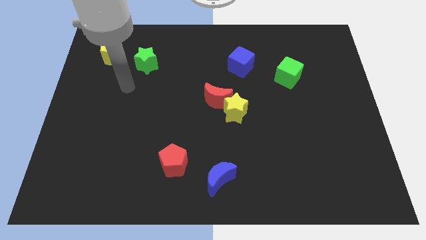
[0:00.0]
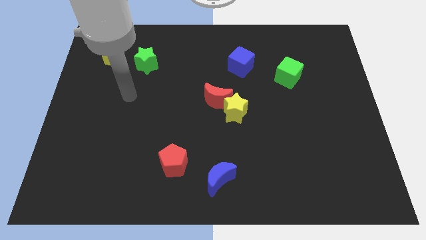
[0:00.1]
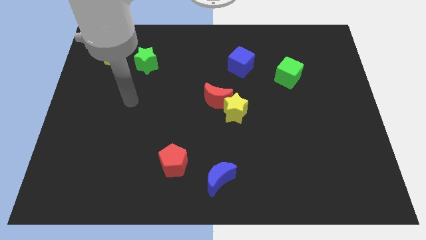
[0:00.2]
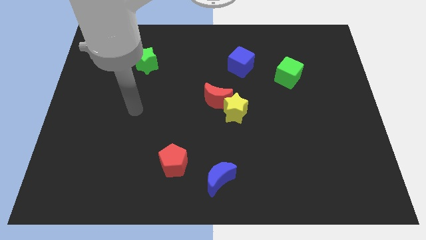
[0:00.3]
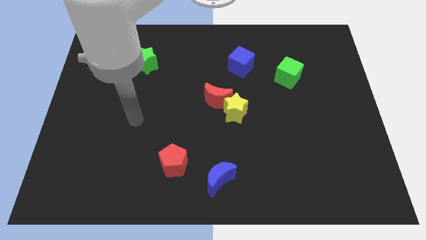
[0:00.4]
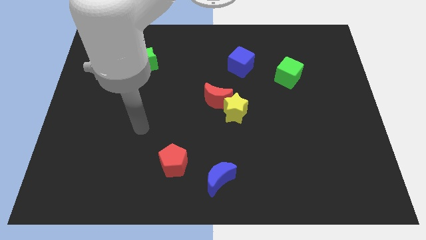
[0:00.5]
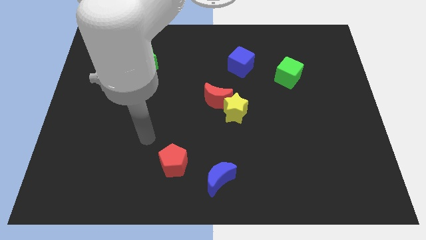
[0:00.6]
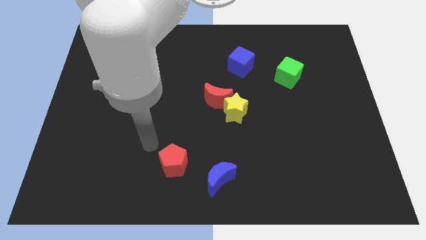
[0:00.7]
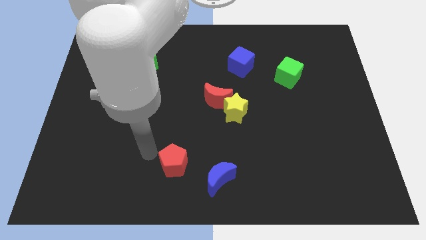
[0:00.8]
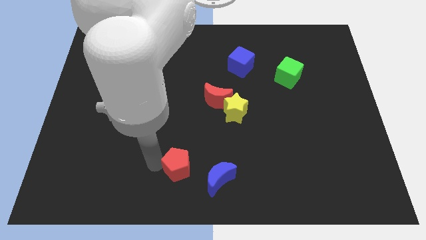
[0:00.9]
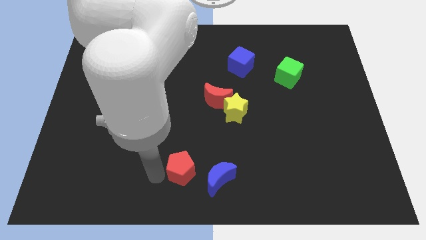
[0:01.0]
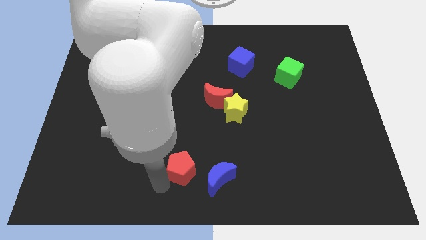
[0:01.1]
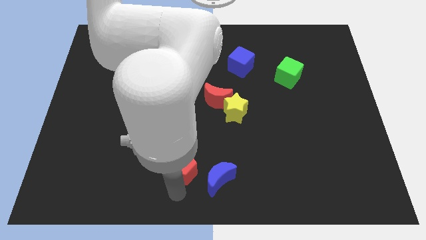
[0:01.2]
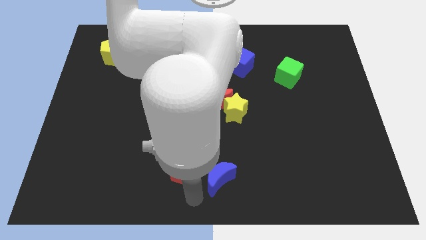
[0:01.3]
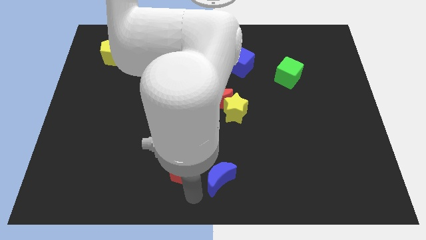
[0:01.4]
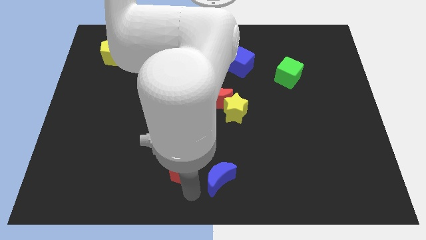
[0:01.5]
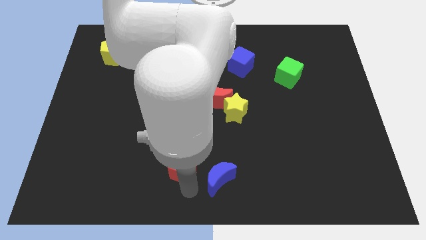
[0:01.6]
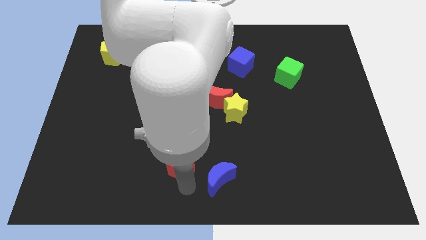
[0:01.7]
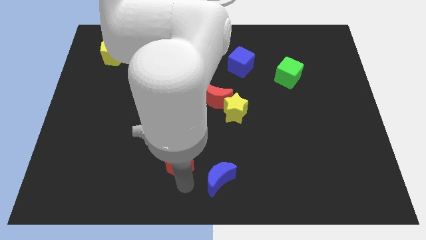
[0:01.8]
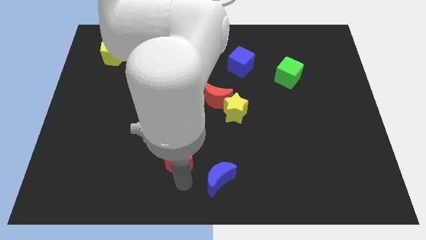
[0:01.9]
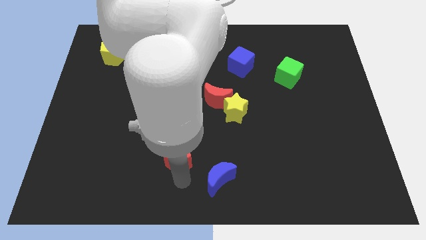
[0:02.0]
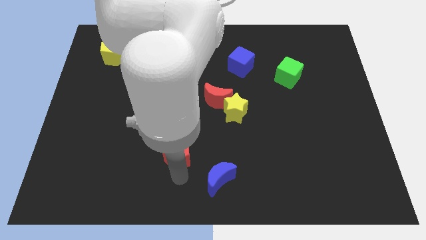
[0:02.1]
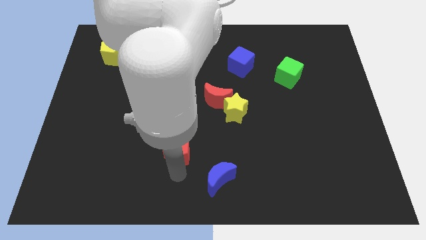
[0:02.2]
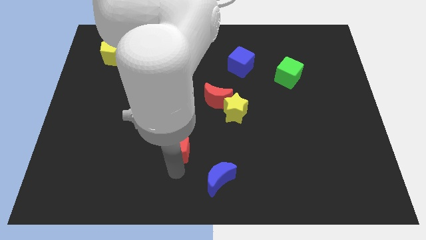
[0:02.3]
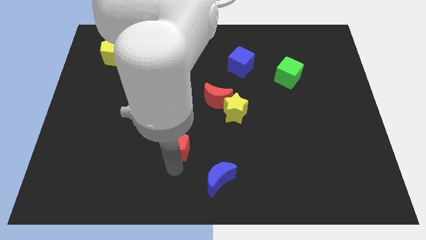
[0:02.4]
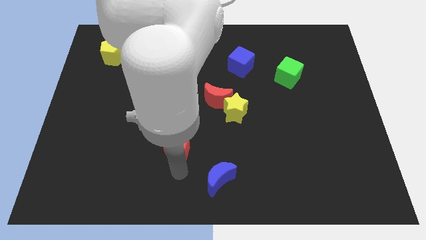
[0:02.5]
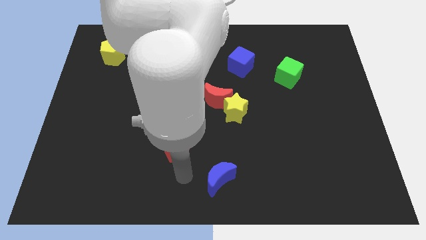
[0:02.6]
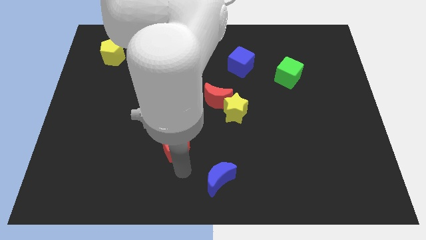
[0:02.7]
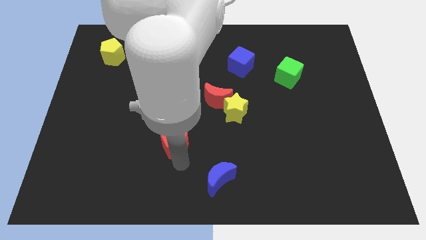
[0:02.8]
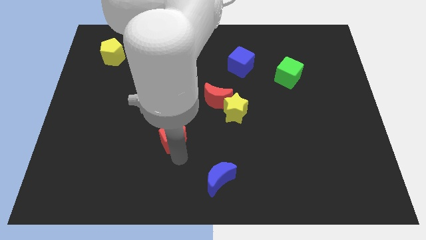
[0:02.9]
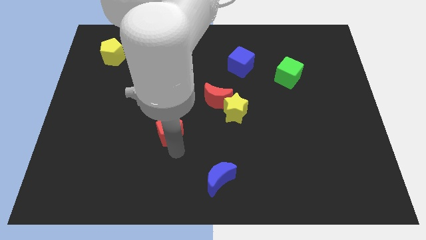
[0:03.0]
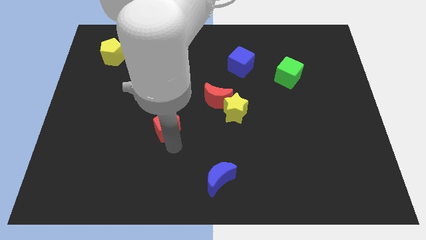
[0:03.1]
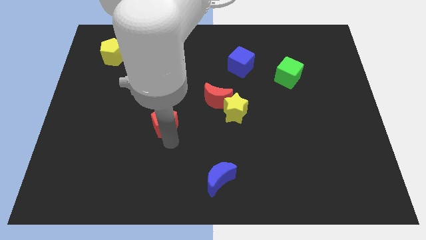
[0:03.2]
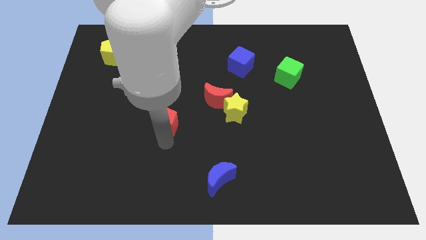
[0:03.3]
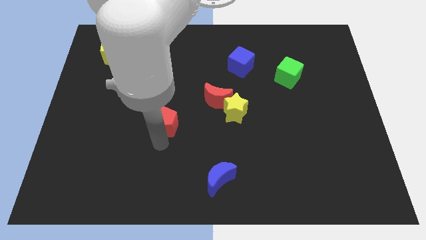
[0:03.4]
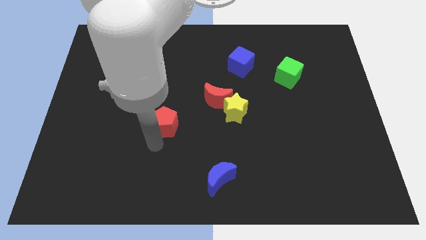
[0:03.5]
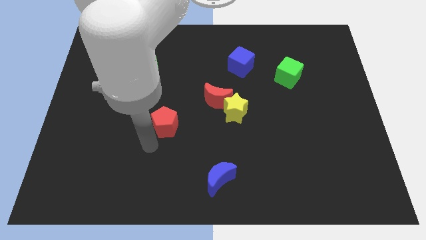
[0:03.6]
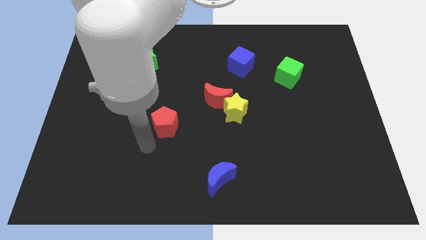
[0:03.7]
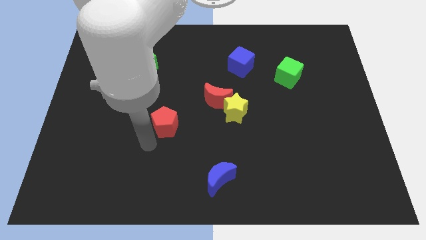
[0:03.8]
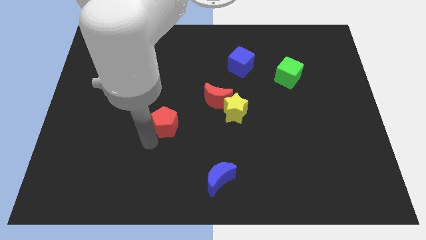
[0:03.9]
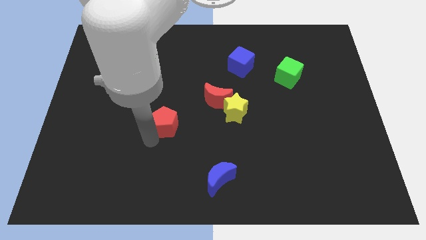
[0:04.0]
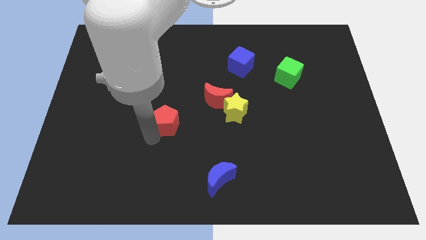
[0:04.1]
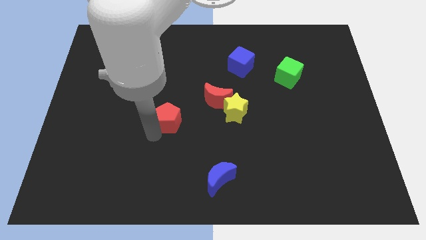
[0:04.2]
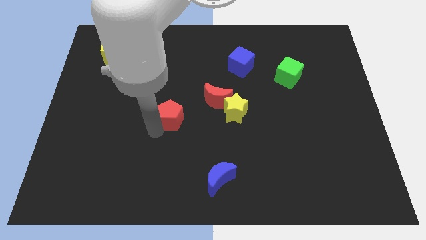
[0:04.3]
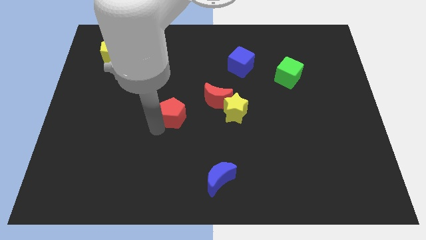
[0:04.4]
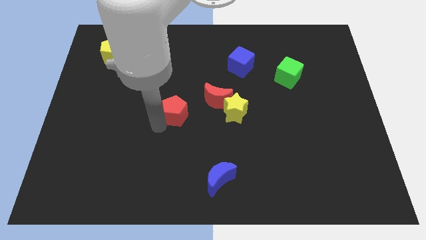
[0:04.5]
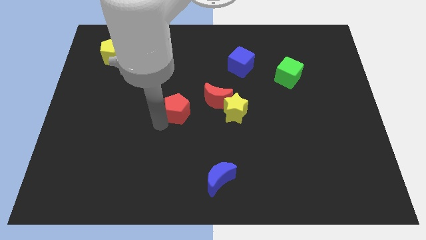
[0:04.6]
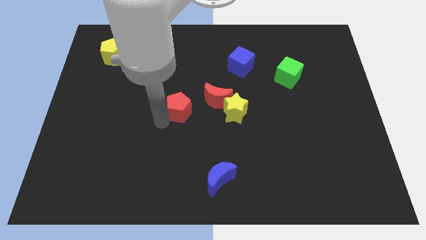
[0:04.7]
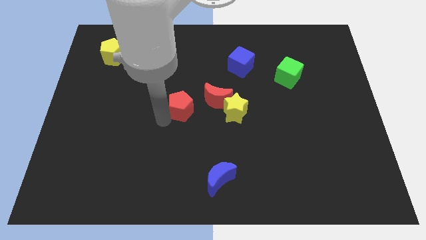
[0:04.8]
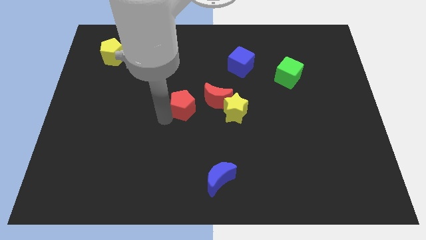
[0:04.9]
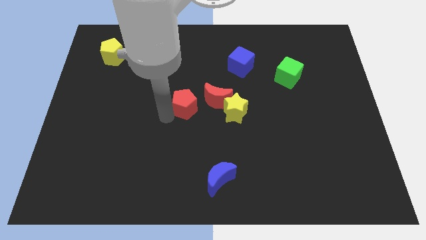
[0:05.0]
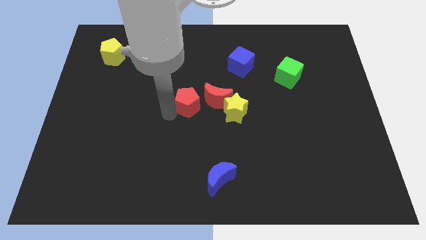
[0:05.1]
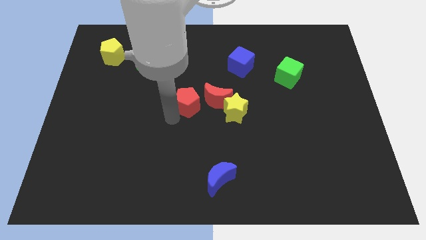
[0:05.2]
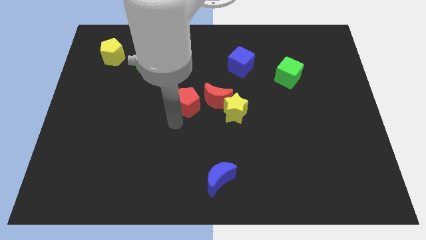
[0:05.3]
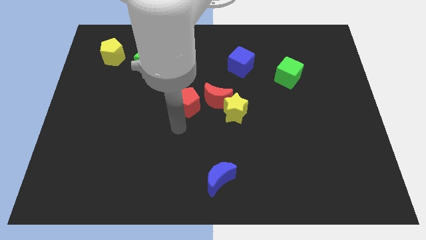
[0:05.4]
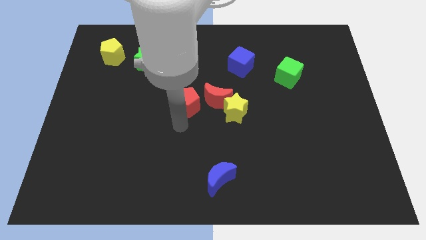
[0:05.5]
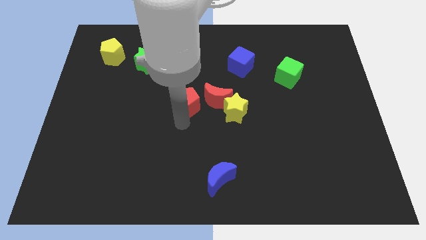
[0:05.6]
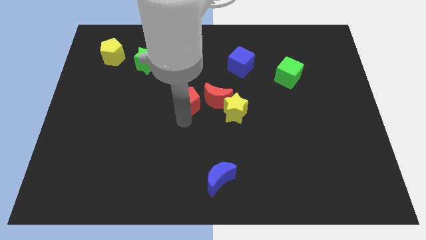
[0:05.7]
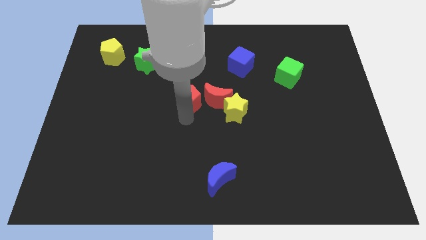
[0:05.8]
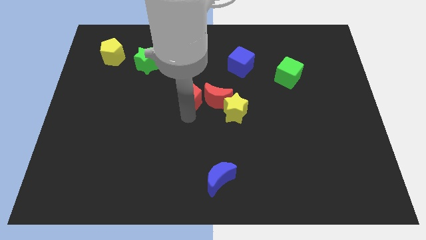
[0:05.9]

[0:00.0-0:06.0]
move the red pentagon to the top left of the red moon
